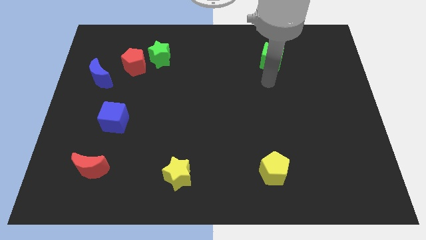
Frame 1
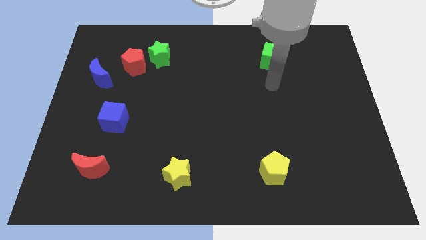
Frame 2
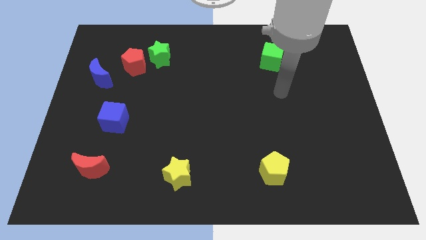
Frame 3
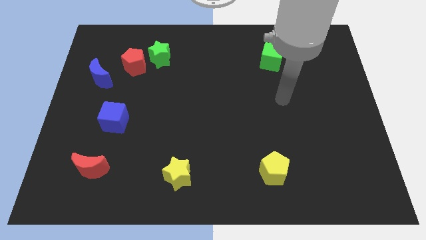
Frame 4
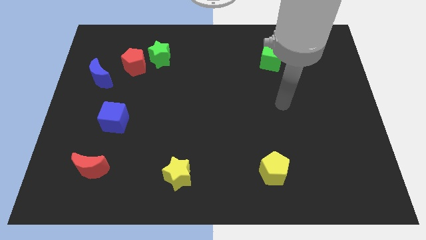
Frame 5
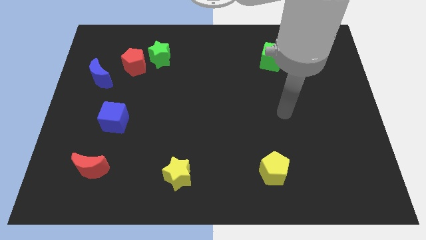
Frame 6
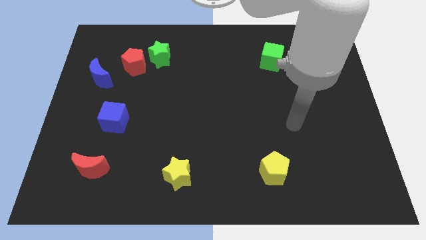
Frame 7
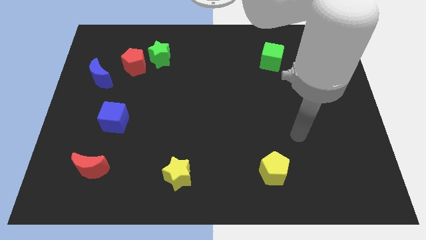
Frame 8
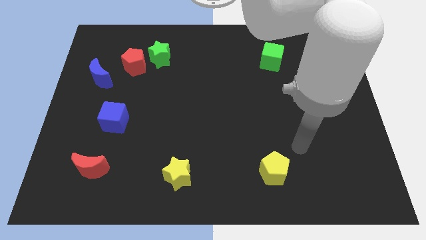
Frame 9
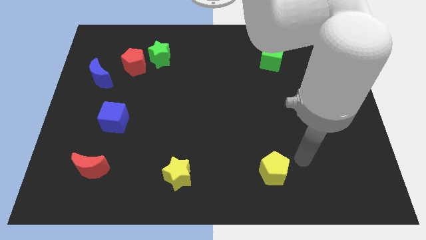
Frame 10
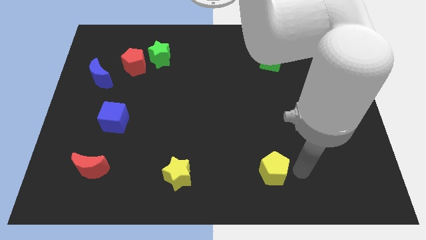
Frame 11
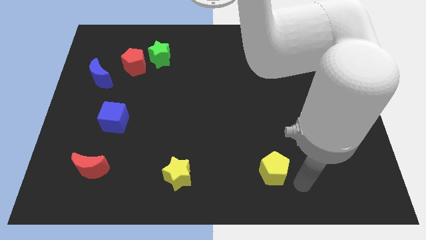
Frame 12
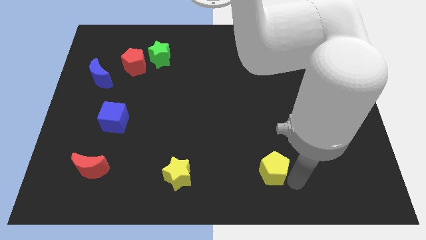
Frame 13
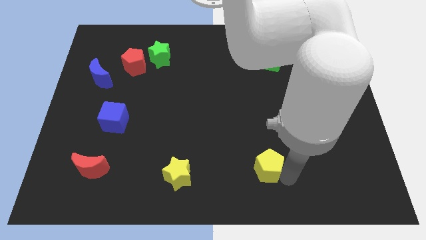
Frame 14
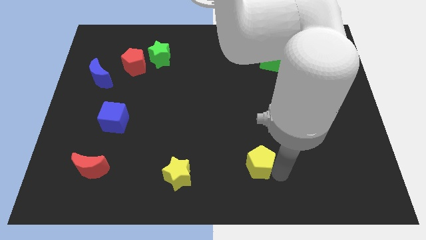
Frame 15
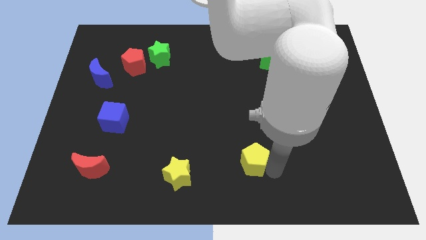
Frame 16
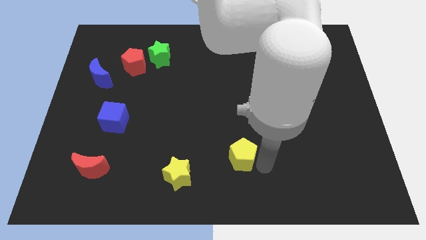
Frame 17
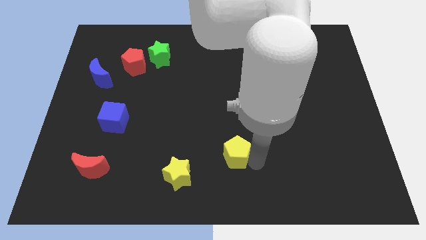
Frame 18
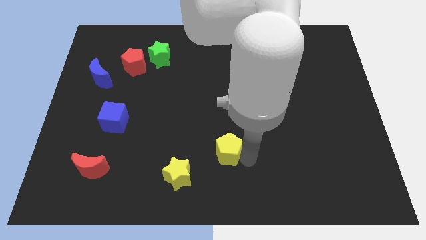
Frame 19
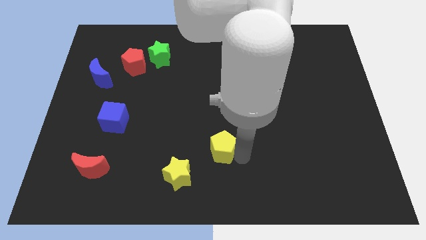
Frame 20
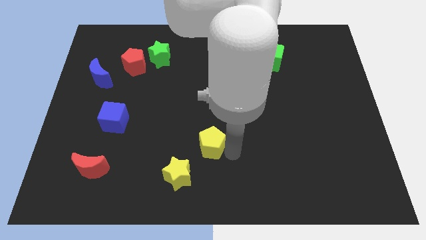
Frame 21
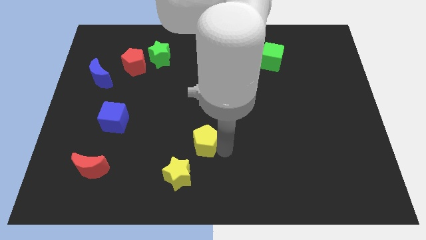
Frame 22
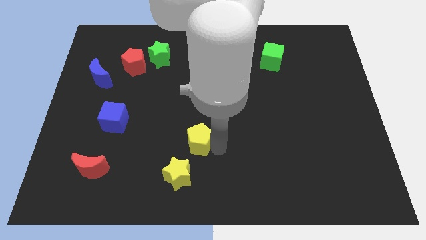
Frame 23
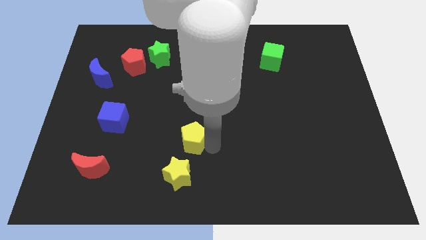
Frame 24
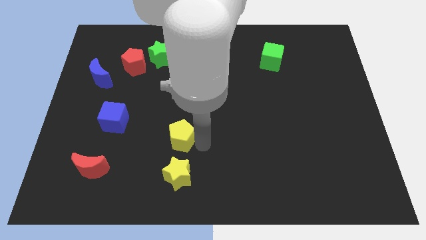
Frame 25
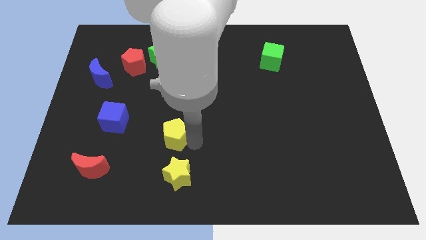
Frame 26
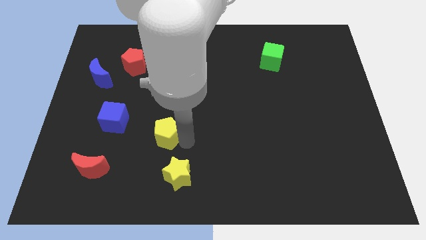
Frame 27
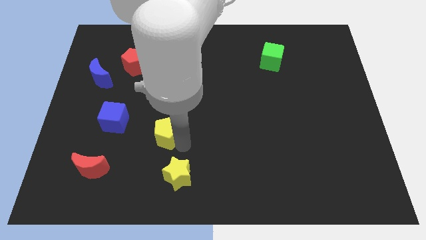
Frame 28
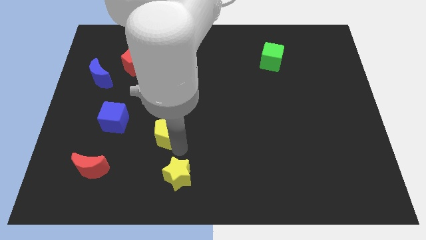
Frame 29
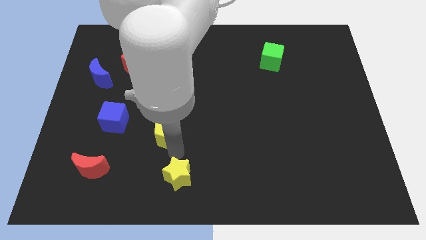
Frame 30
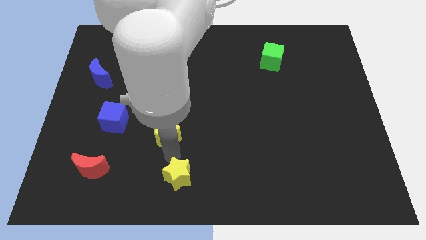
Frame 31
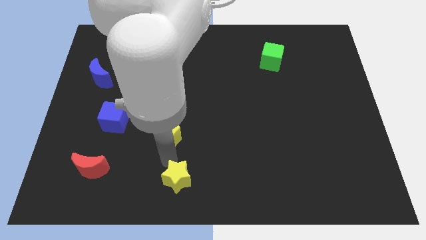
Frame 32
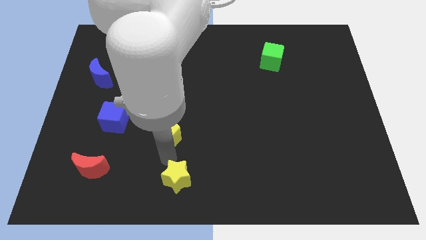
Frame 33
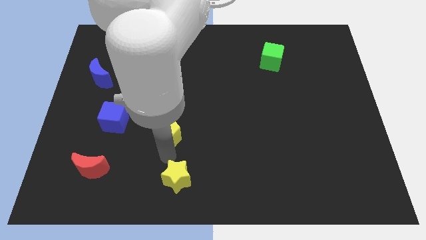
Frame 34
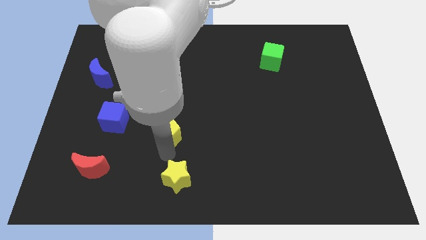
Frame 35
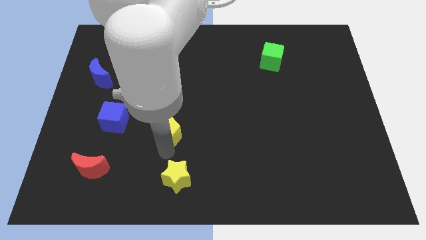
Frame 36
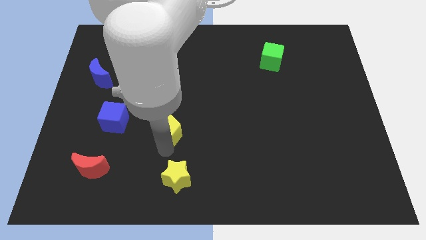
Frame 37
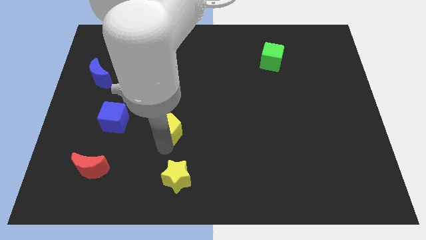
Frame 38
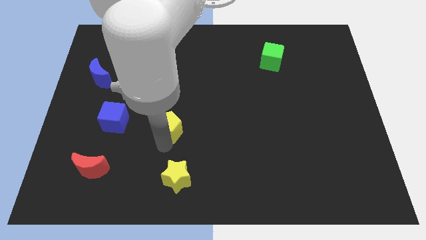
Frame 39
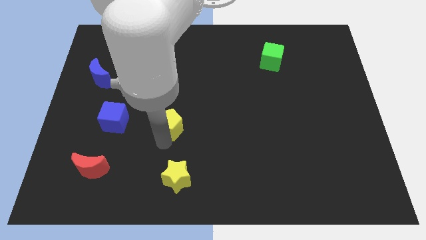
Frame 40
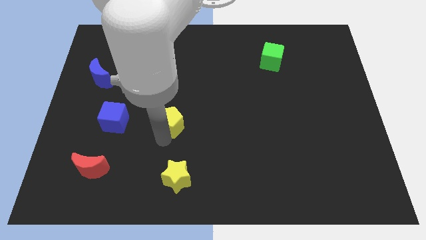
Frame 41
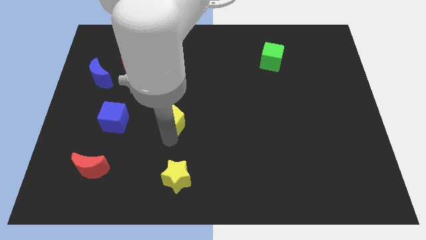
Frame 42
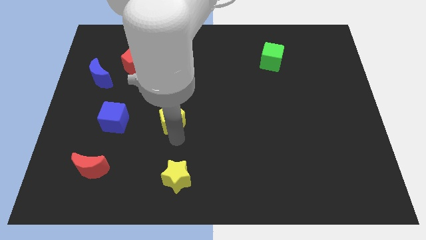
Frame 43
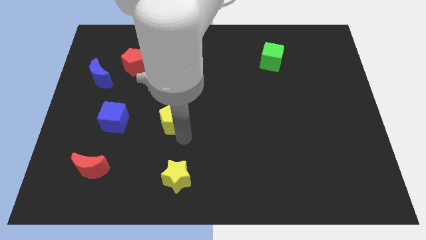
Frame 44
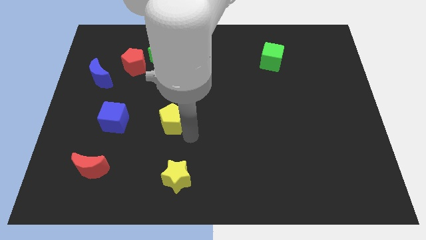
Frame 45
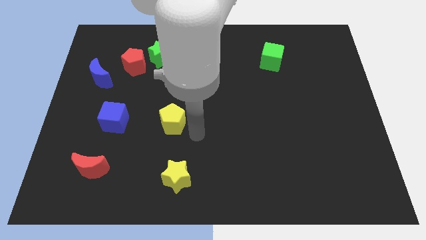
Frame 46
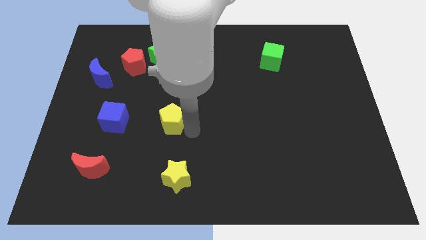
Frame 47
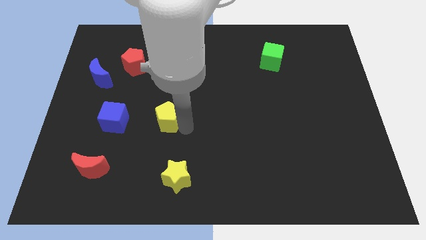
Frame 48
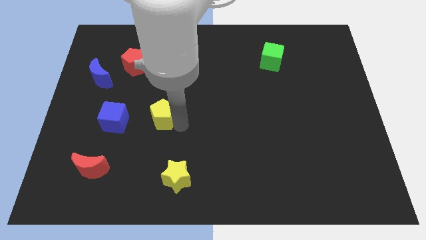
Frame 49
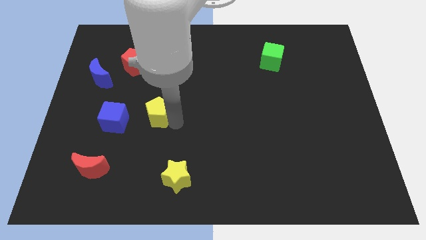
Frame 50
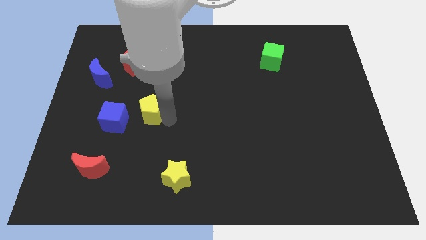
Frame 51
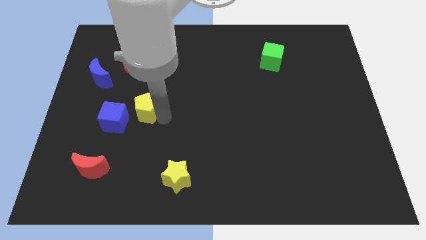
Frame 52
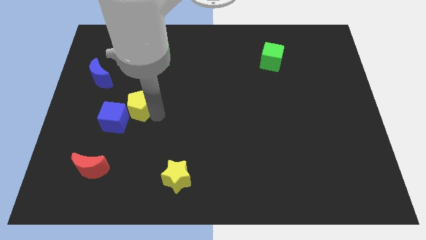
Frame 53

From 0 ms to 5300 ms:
slide the yellow pentagon below the red pentagon

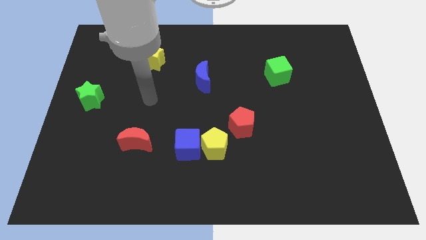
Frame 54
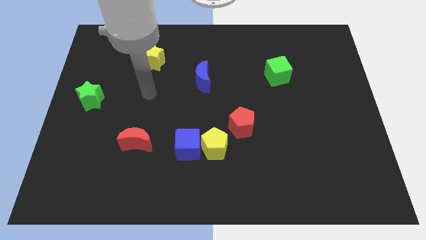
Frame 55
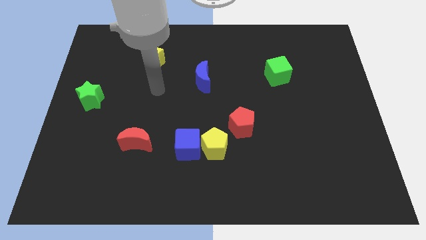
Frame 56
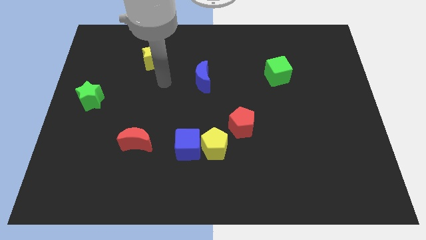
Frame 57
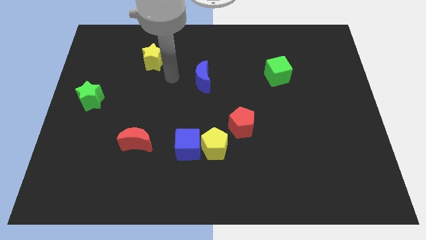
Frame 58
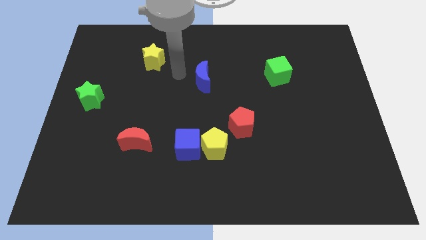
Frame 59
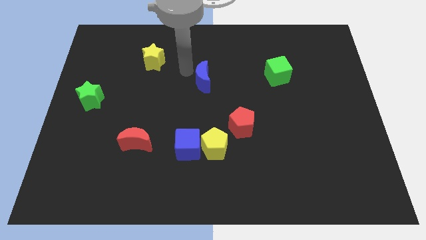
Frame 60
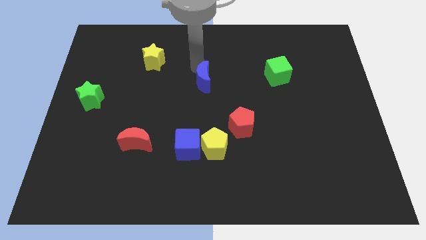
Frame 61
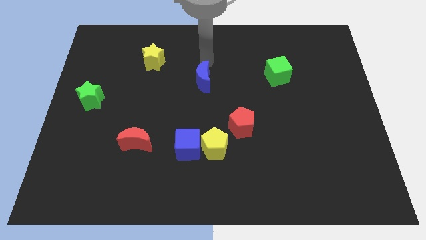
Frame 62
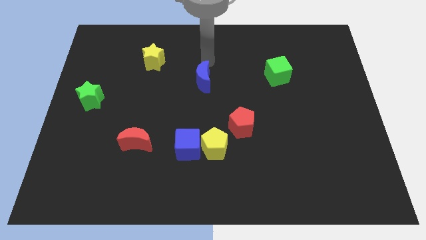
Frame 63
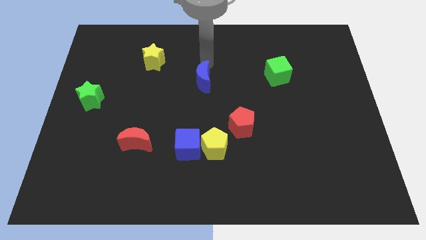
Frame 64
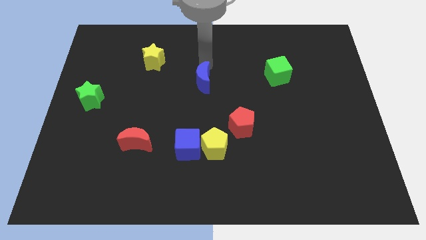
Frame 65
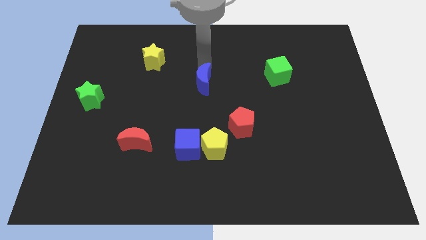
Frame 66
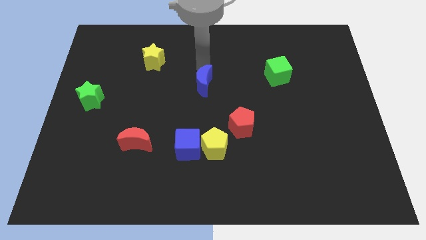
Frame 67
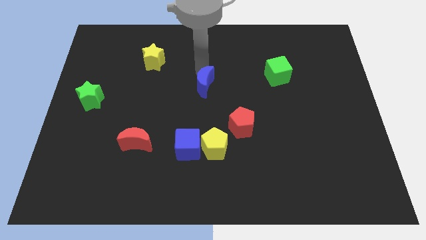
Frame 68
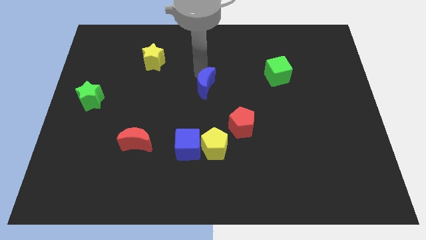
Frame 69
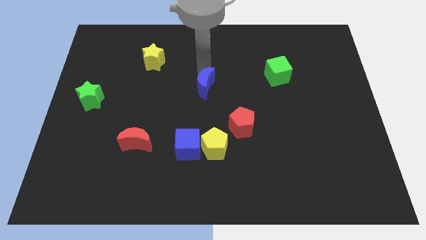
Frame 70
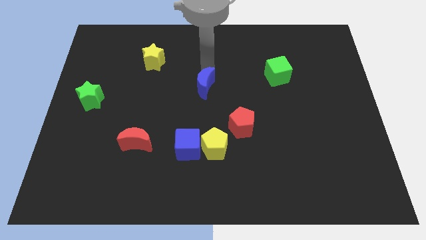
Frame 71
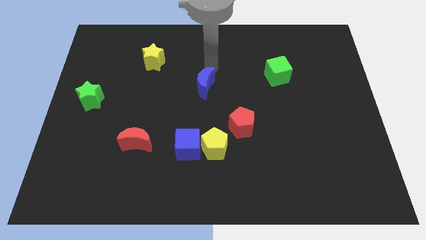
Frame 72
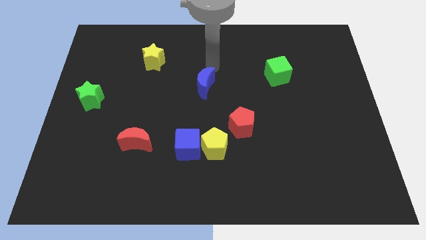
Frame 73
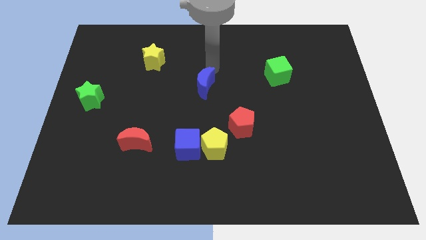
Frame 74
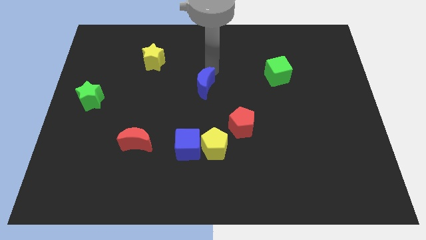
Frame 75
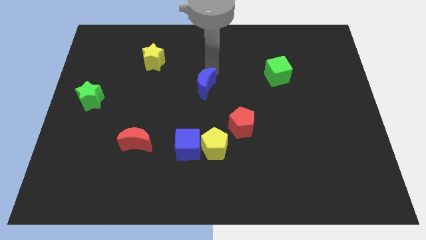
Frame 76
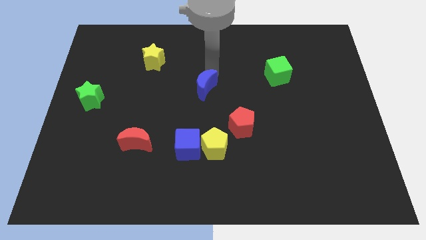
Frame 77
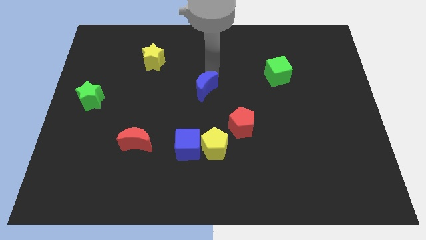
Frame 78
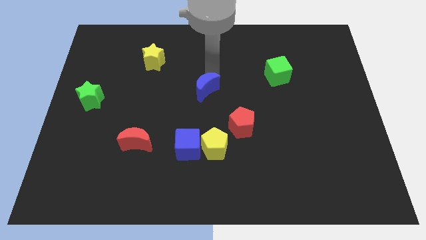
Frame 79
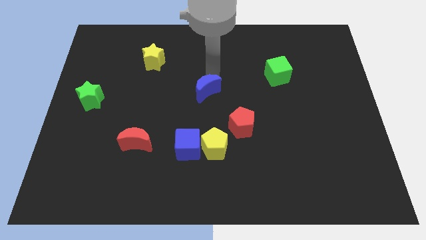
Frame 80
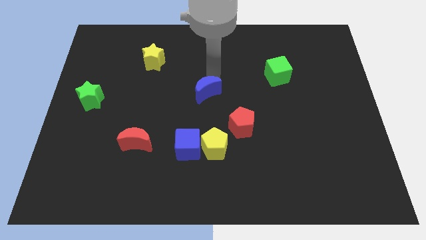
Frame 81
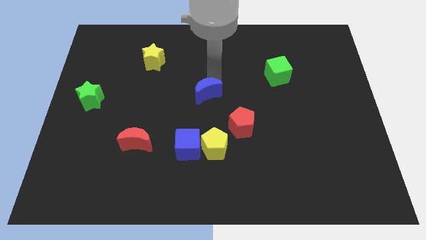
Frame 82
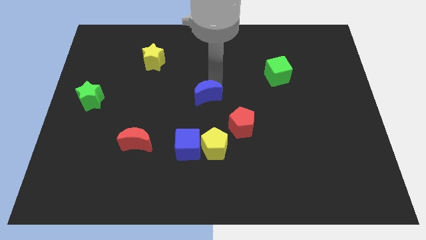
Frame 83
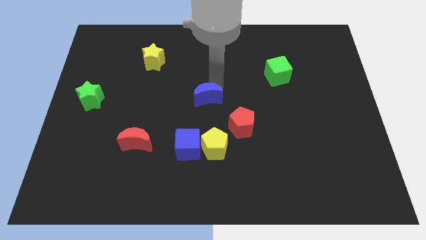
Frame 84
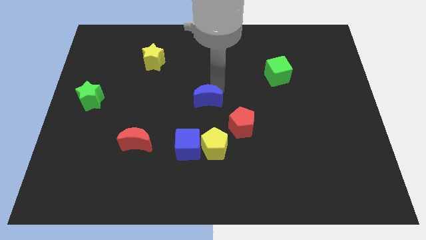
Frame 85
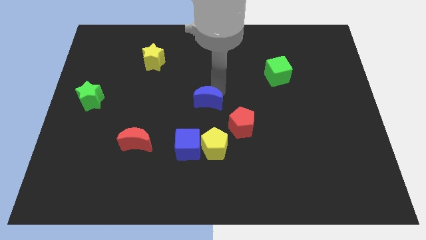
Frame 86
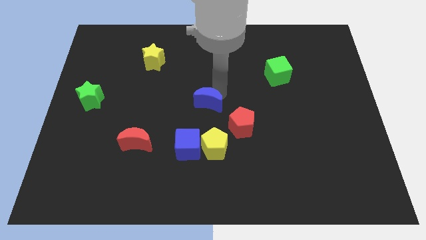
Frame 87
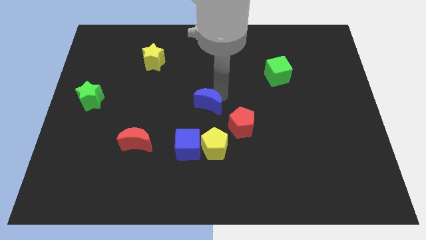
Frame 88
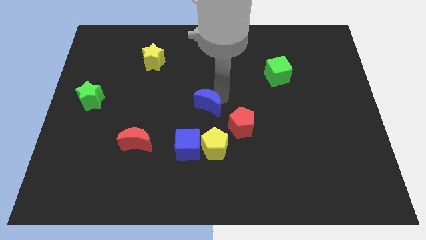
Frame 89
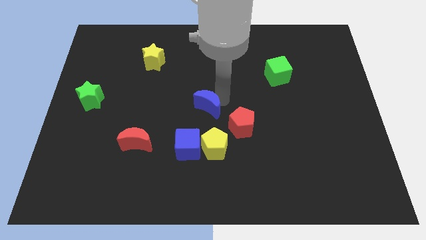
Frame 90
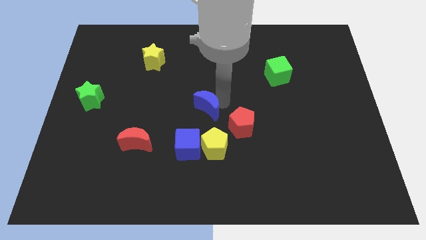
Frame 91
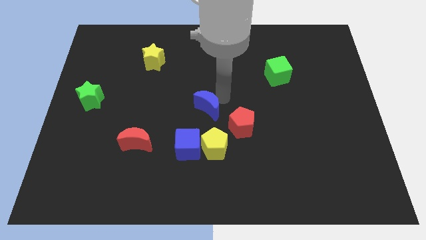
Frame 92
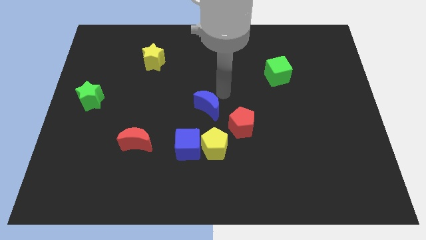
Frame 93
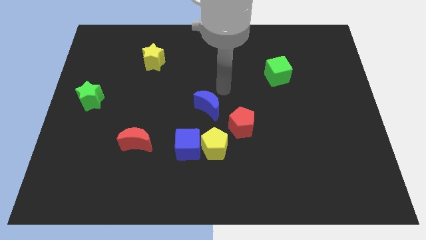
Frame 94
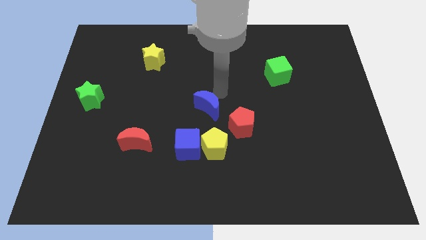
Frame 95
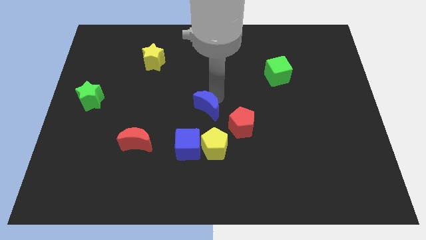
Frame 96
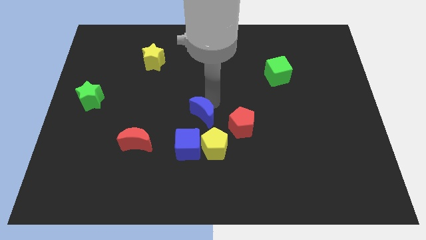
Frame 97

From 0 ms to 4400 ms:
put the blue moon to the top left side of the yellow pentagon
